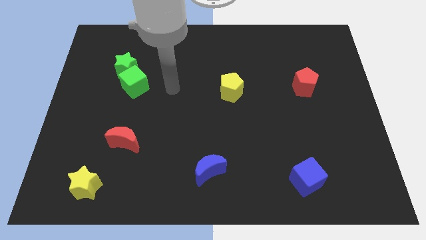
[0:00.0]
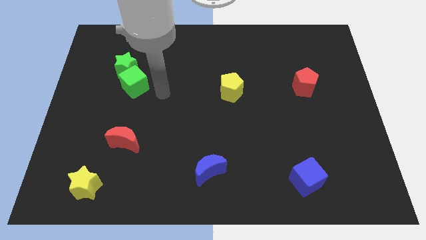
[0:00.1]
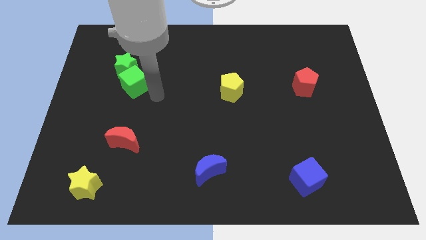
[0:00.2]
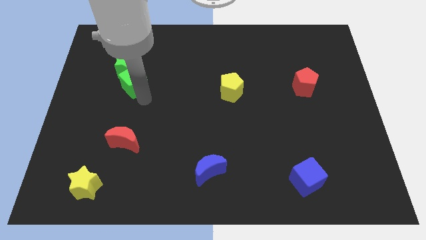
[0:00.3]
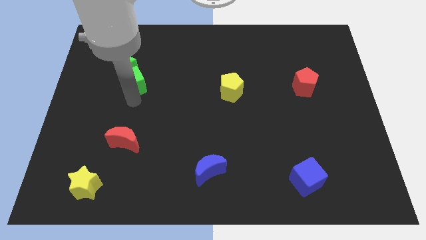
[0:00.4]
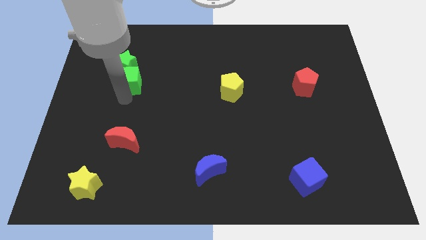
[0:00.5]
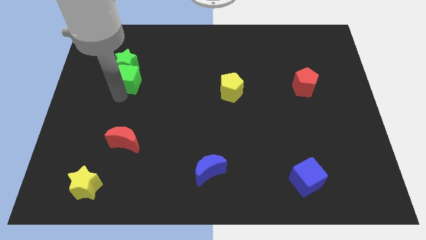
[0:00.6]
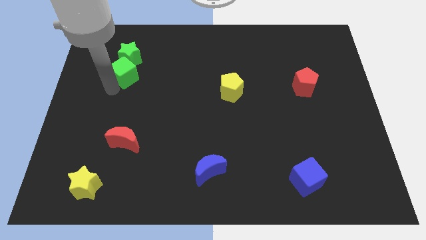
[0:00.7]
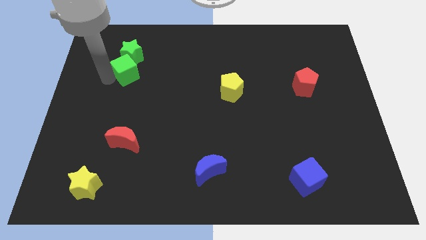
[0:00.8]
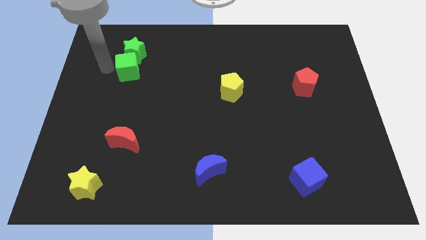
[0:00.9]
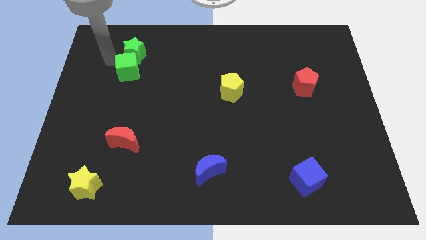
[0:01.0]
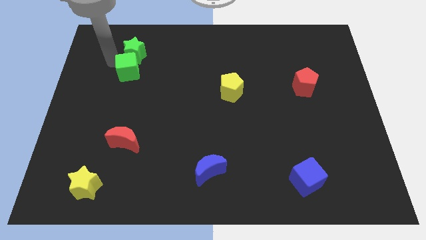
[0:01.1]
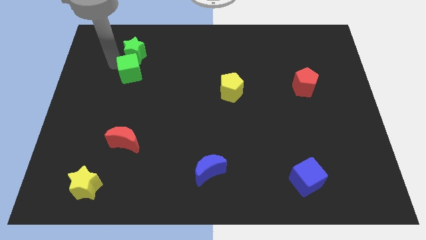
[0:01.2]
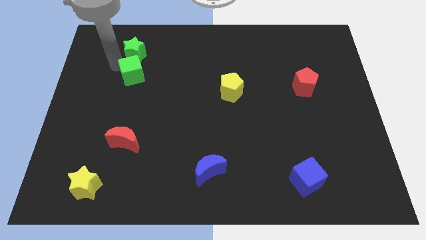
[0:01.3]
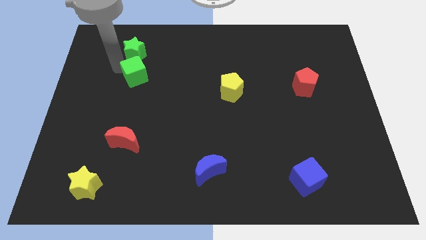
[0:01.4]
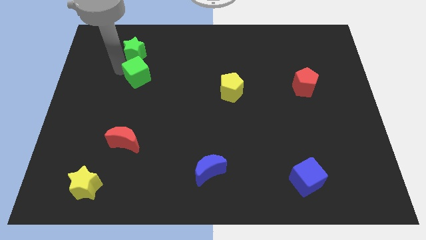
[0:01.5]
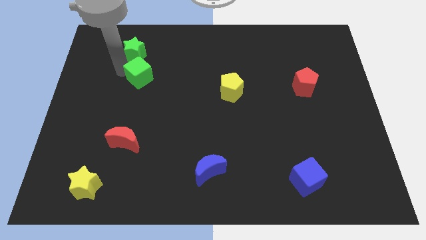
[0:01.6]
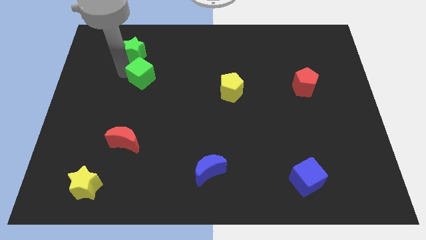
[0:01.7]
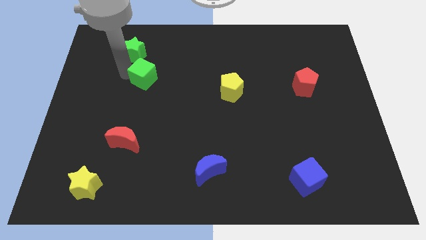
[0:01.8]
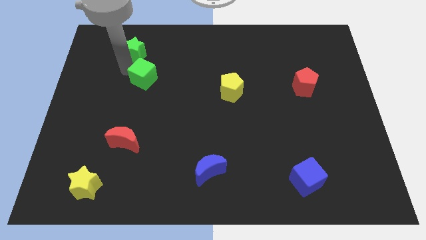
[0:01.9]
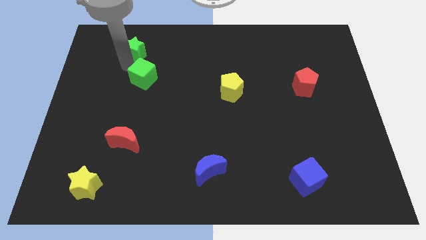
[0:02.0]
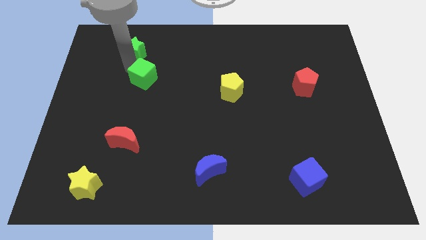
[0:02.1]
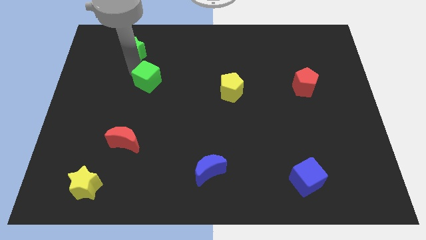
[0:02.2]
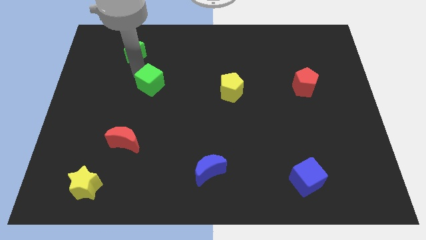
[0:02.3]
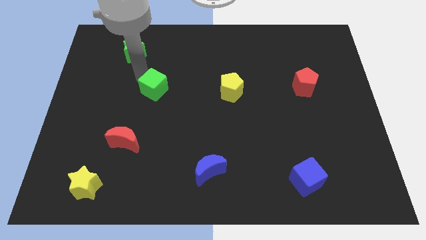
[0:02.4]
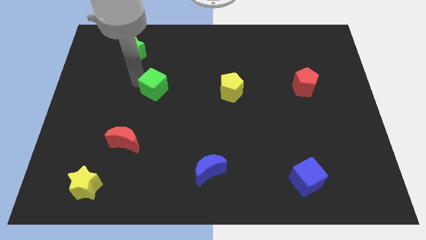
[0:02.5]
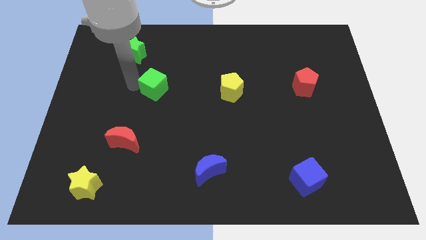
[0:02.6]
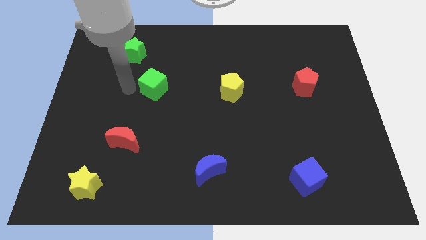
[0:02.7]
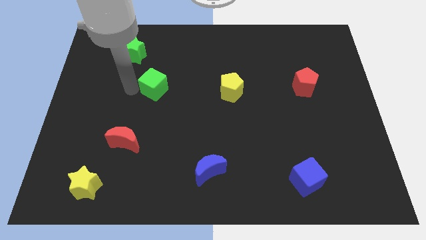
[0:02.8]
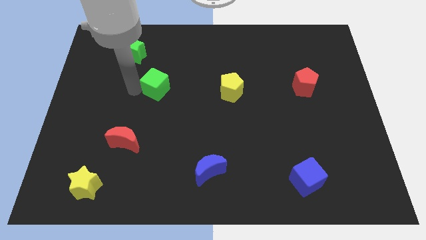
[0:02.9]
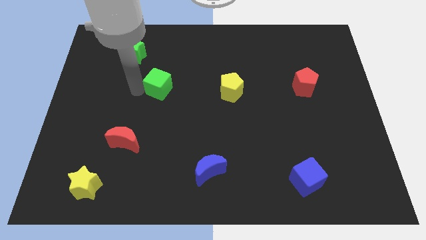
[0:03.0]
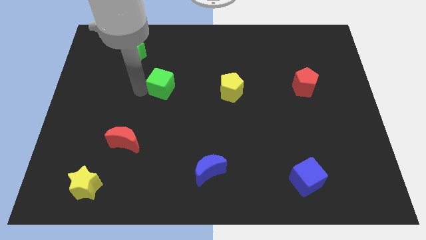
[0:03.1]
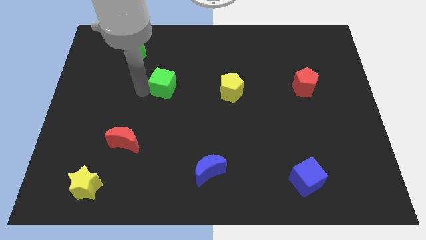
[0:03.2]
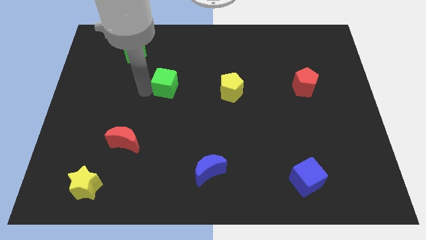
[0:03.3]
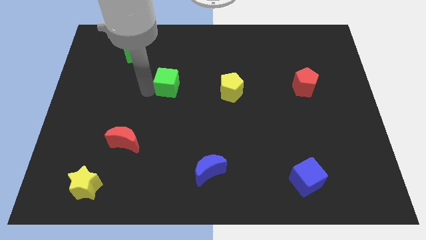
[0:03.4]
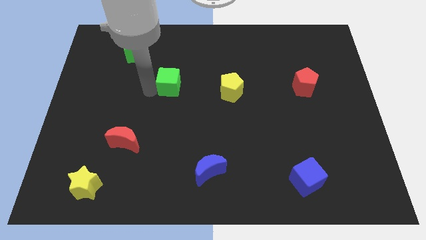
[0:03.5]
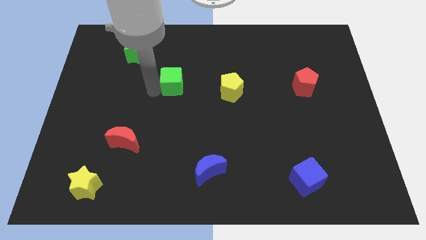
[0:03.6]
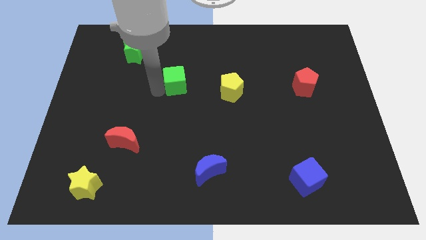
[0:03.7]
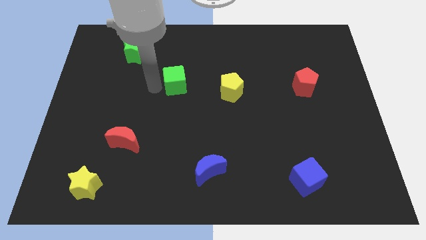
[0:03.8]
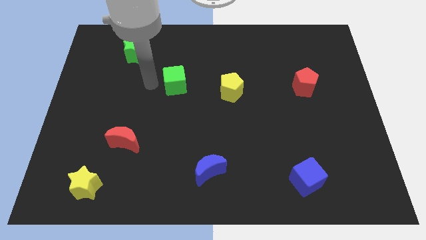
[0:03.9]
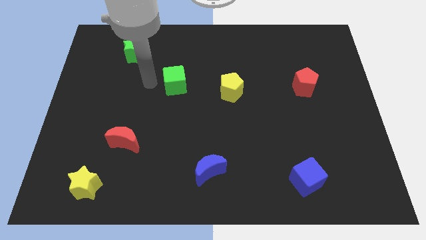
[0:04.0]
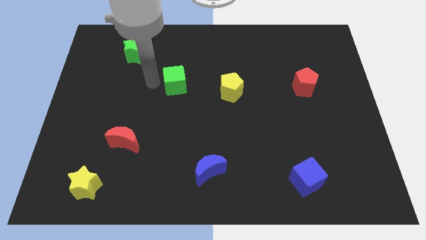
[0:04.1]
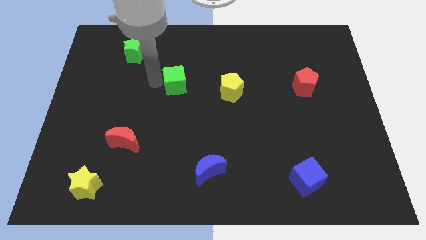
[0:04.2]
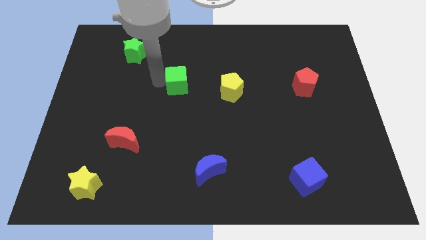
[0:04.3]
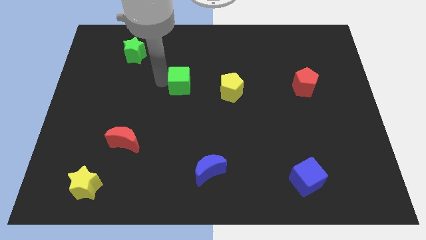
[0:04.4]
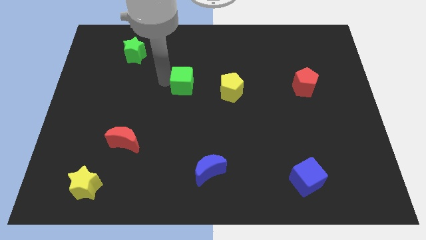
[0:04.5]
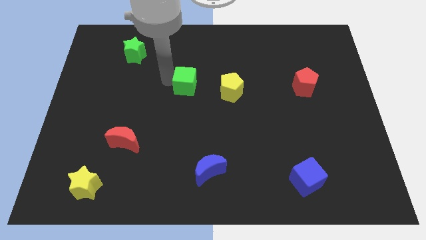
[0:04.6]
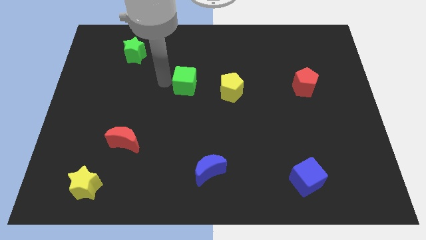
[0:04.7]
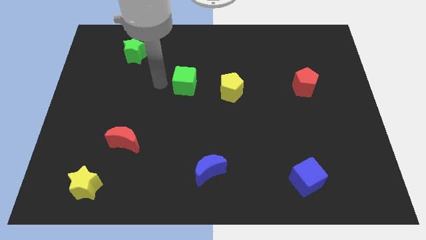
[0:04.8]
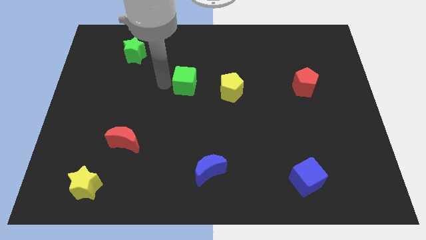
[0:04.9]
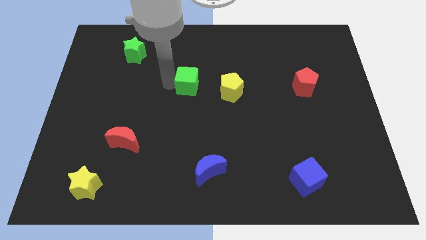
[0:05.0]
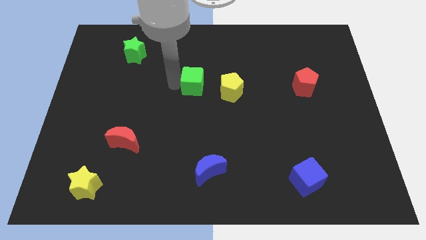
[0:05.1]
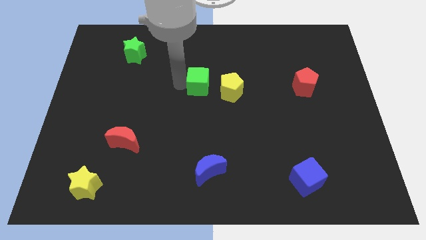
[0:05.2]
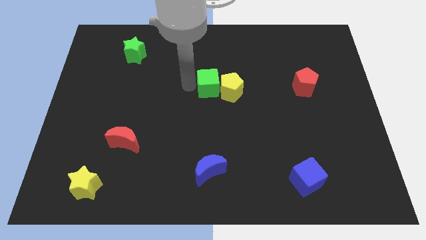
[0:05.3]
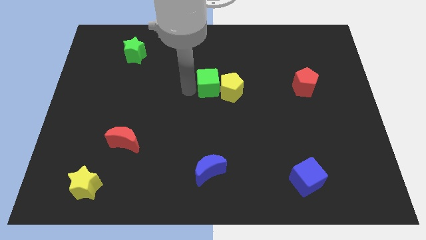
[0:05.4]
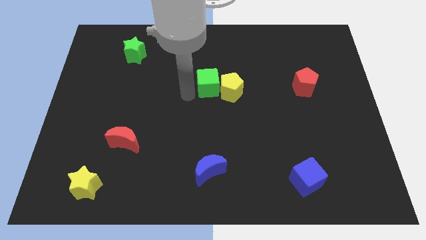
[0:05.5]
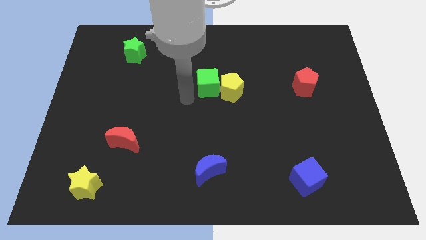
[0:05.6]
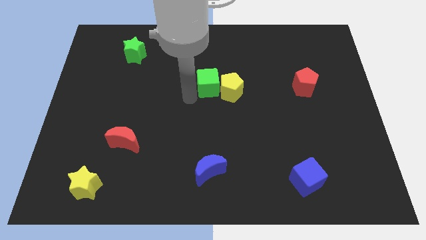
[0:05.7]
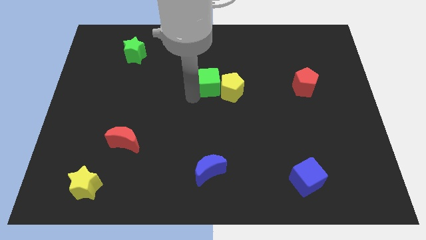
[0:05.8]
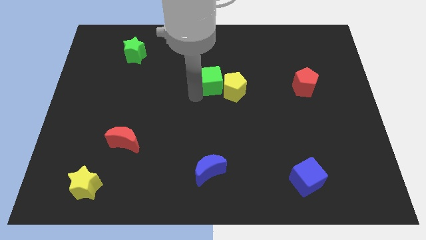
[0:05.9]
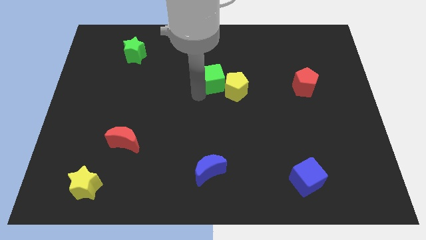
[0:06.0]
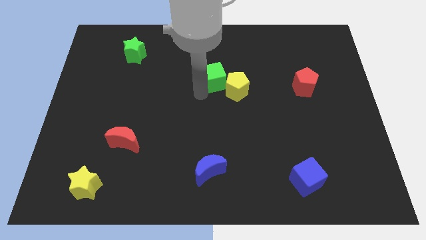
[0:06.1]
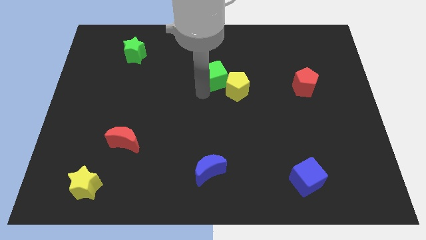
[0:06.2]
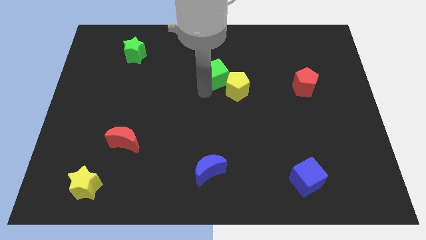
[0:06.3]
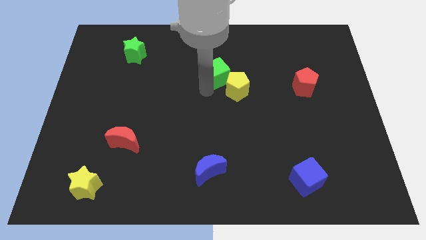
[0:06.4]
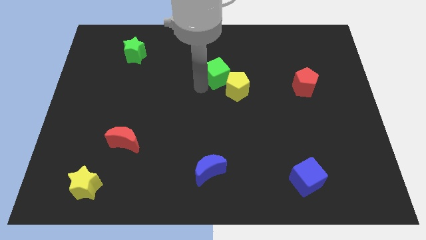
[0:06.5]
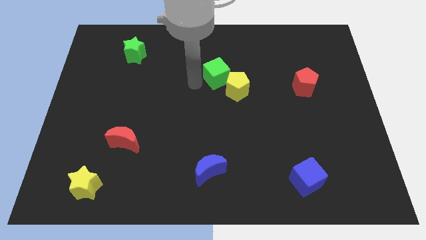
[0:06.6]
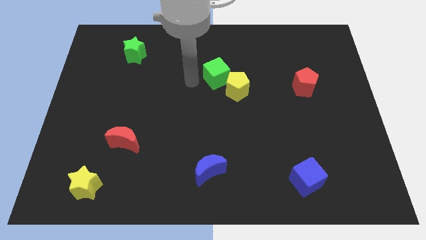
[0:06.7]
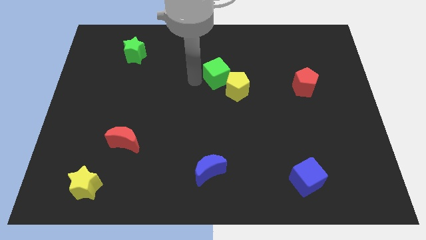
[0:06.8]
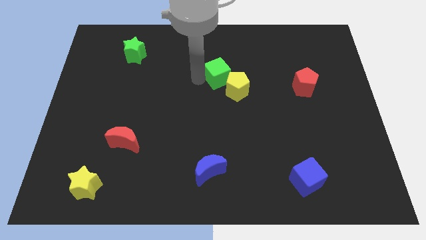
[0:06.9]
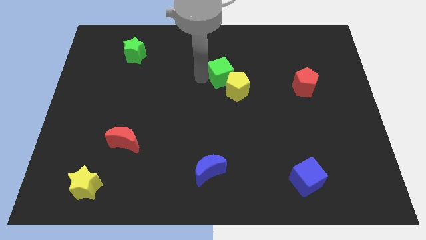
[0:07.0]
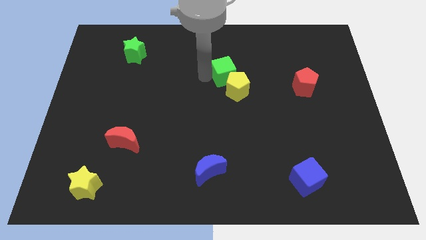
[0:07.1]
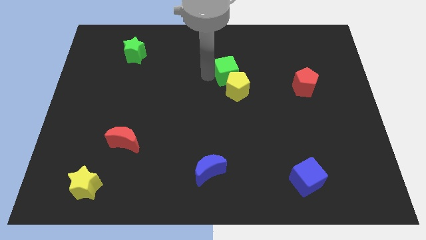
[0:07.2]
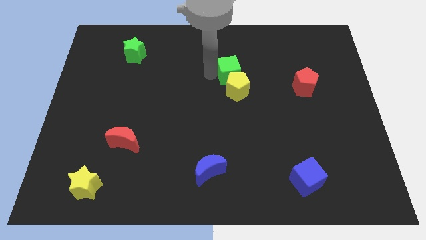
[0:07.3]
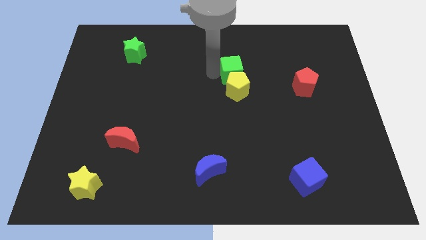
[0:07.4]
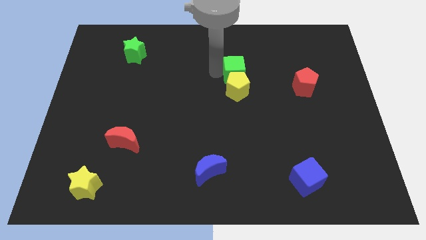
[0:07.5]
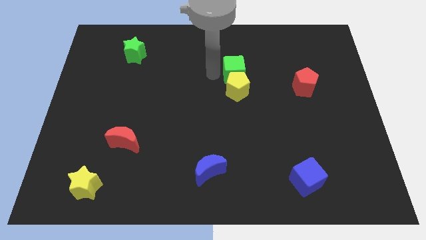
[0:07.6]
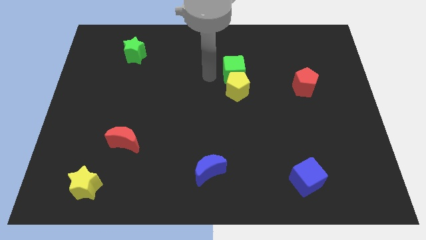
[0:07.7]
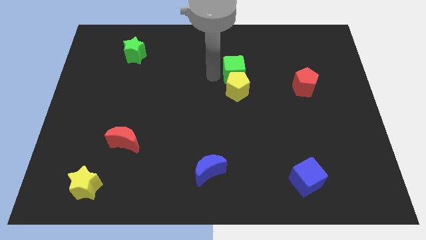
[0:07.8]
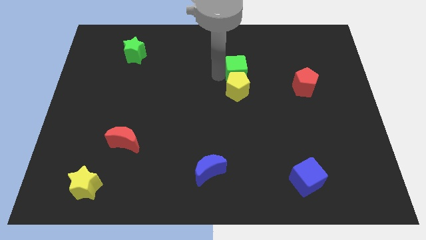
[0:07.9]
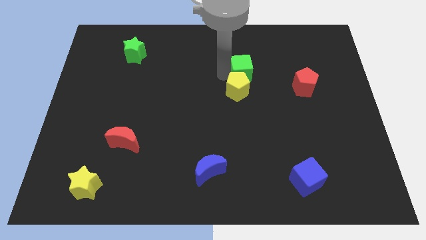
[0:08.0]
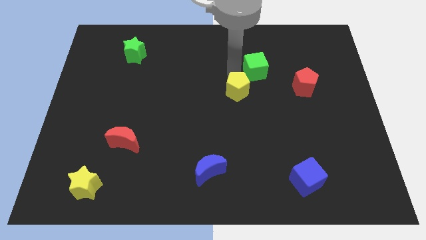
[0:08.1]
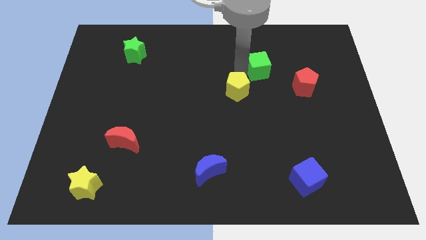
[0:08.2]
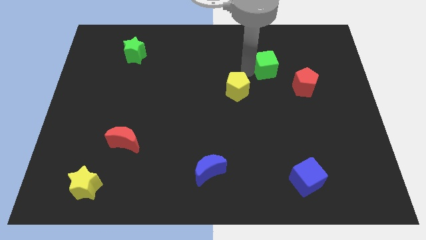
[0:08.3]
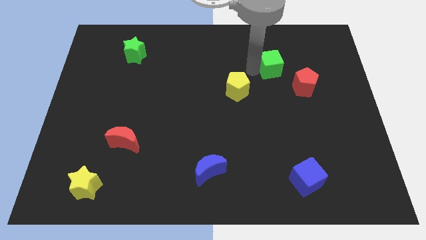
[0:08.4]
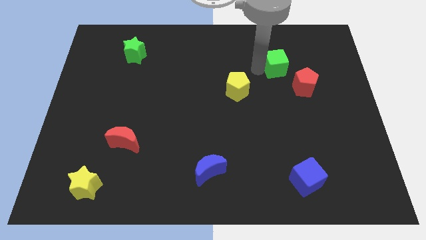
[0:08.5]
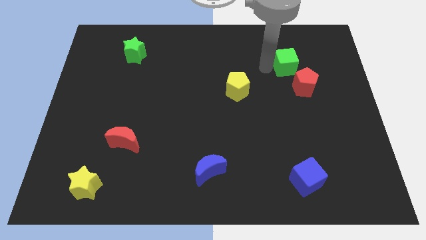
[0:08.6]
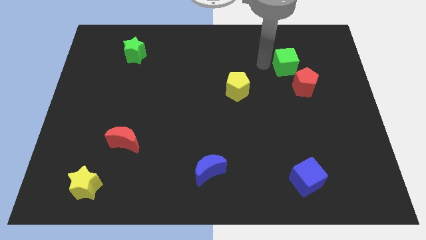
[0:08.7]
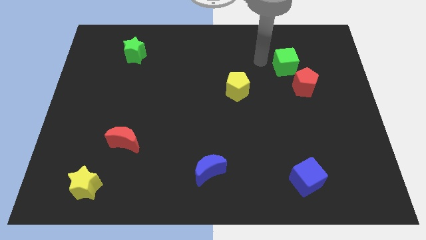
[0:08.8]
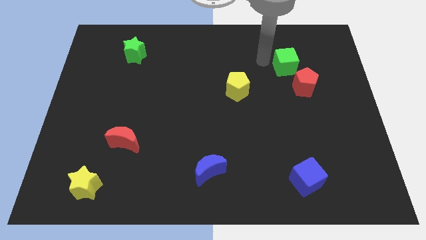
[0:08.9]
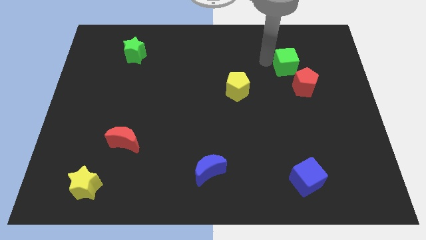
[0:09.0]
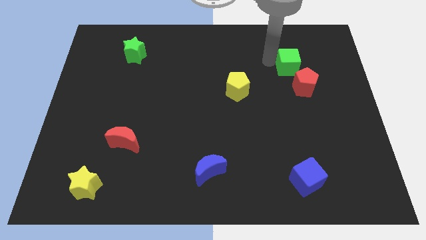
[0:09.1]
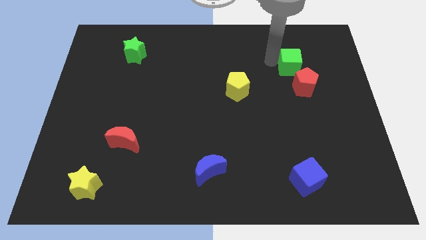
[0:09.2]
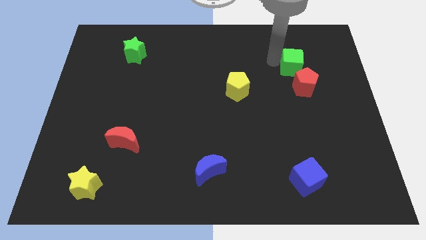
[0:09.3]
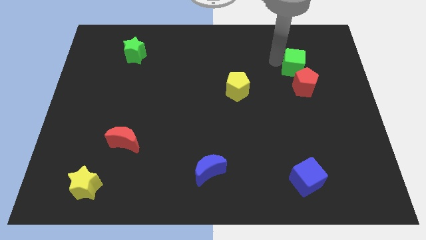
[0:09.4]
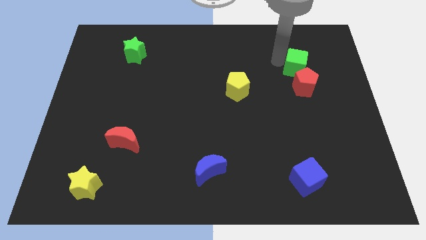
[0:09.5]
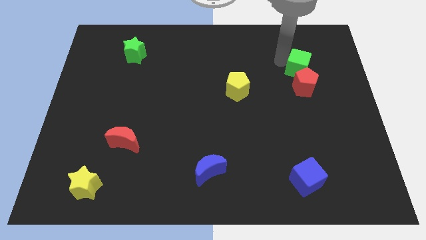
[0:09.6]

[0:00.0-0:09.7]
put the green cube to the top right of the red pentagon
